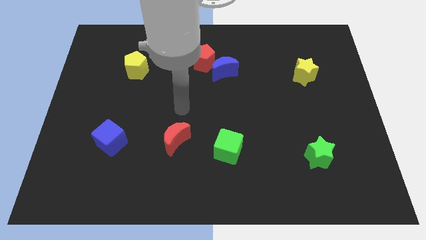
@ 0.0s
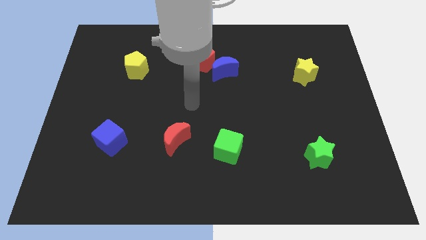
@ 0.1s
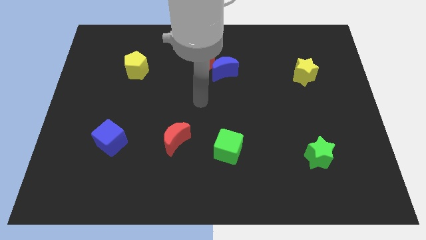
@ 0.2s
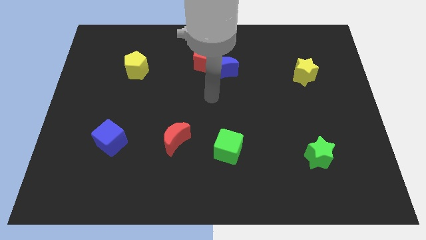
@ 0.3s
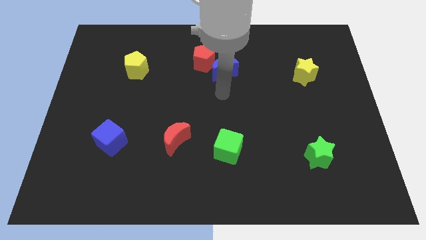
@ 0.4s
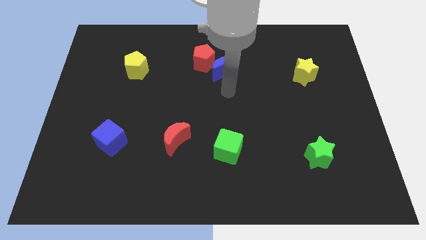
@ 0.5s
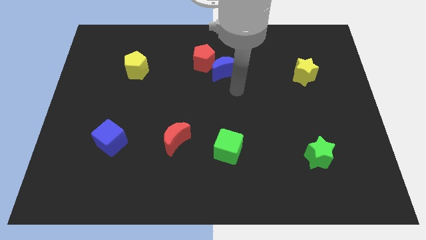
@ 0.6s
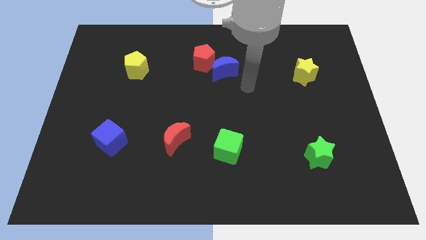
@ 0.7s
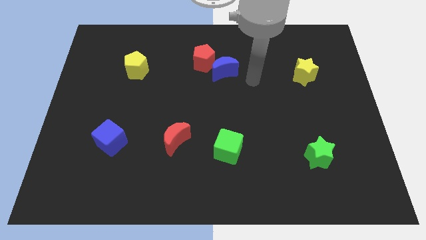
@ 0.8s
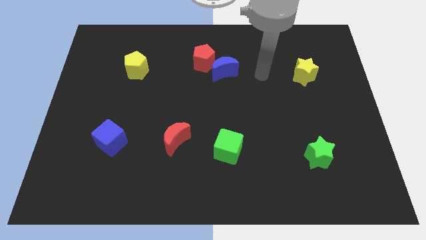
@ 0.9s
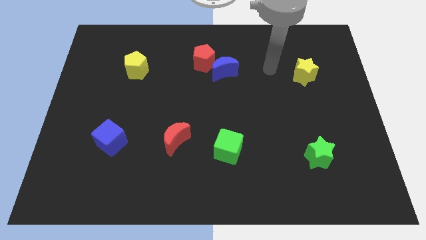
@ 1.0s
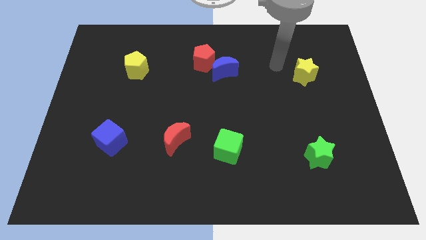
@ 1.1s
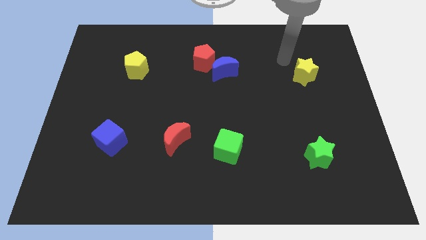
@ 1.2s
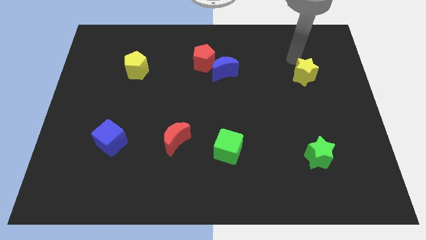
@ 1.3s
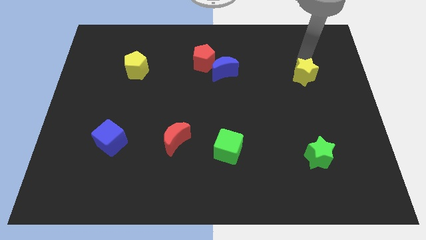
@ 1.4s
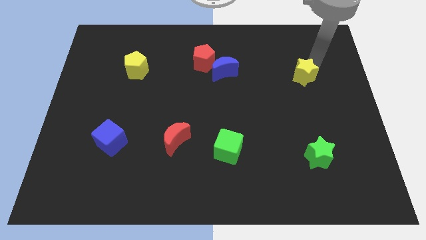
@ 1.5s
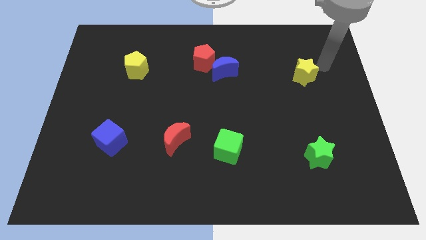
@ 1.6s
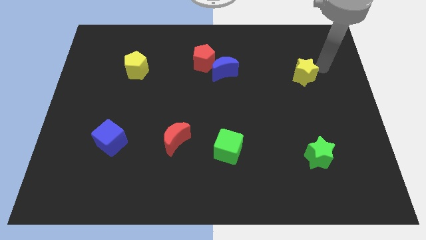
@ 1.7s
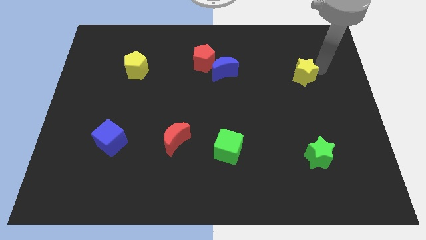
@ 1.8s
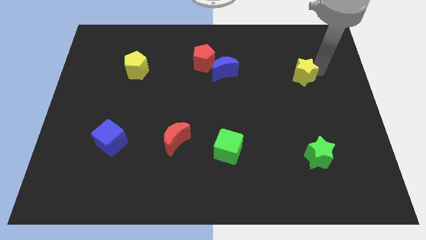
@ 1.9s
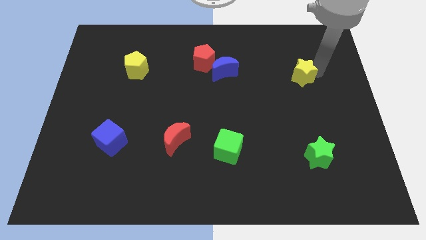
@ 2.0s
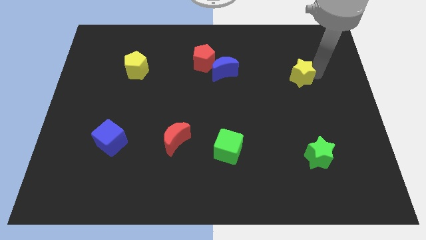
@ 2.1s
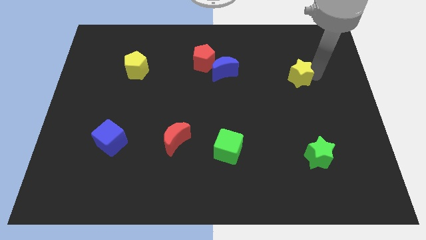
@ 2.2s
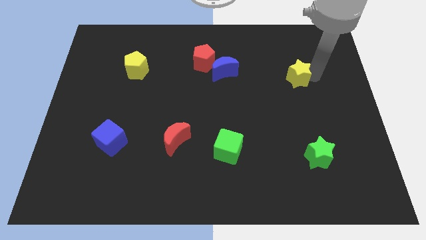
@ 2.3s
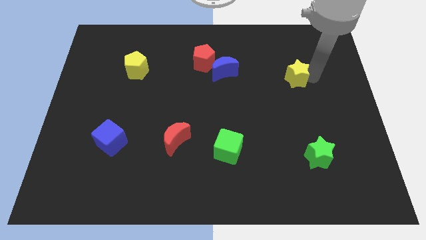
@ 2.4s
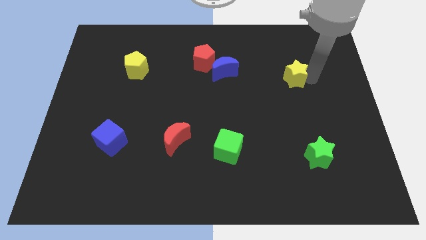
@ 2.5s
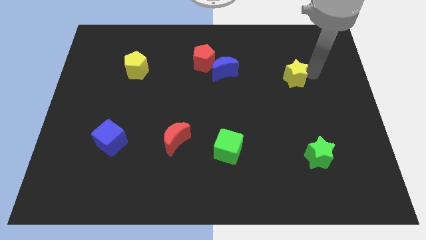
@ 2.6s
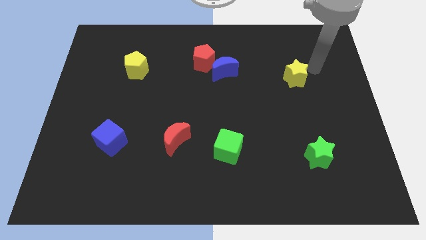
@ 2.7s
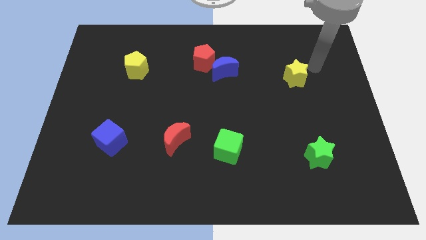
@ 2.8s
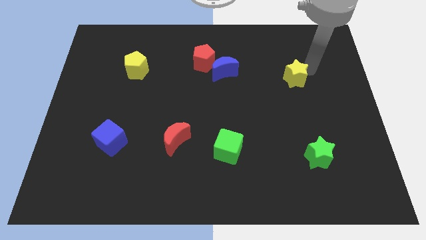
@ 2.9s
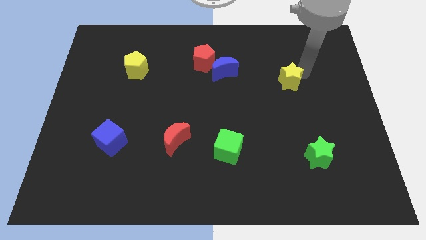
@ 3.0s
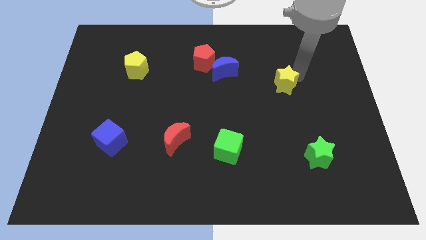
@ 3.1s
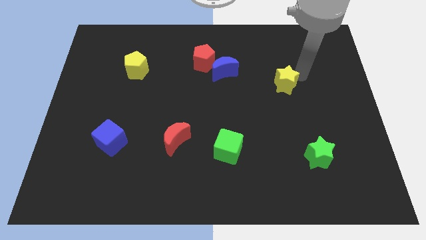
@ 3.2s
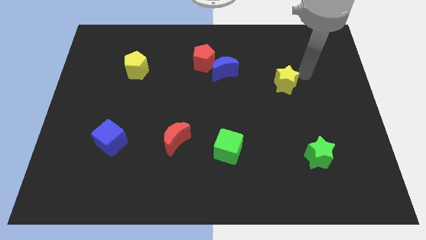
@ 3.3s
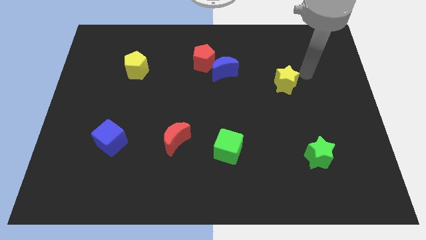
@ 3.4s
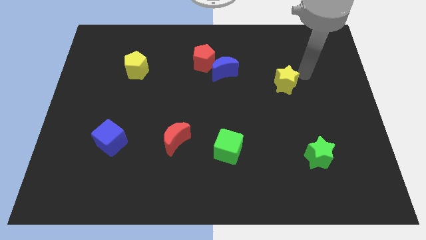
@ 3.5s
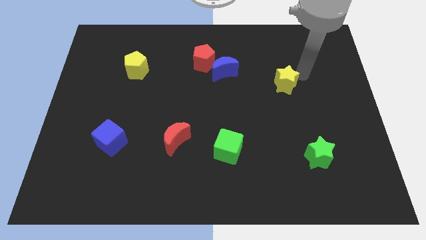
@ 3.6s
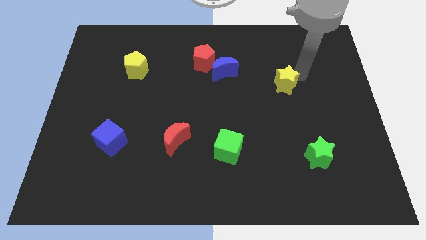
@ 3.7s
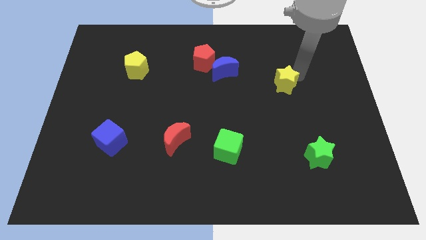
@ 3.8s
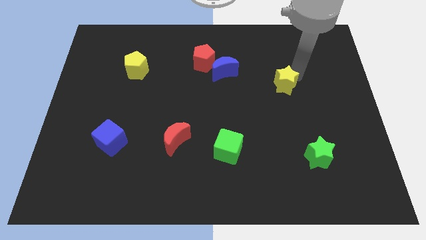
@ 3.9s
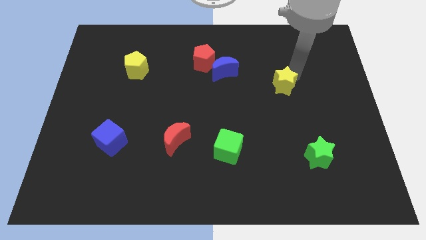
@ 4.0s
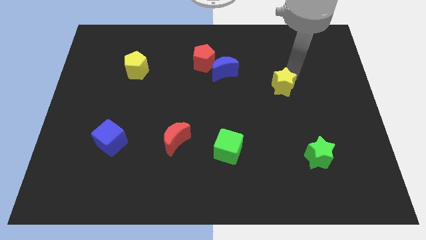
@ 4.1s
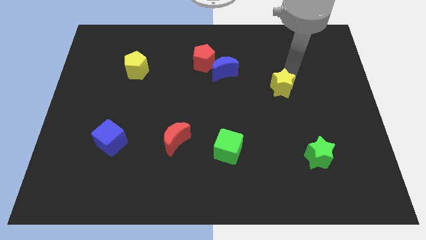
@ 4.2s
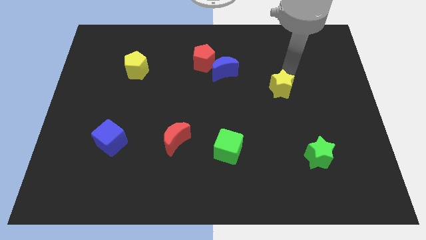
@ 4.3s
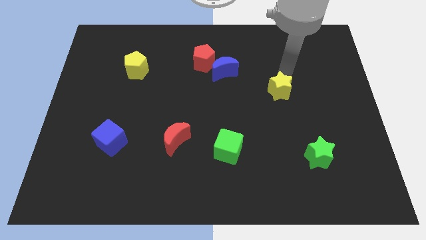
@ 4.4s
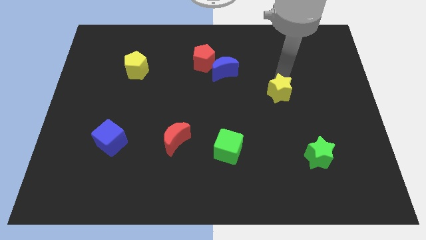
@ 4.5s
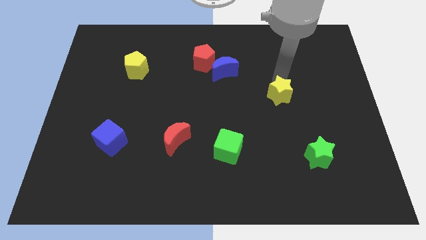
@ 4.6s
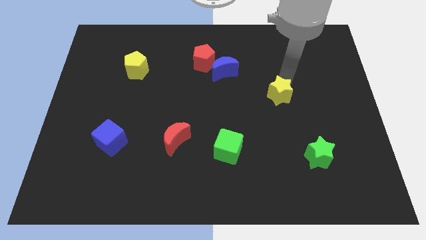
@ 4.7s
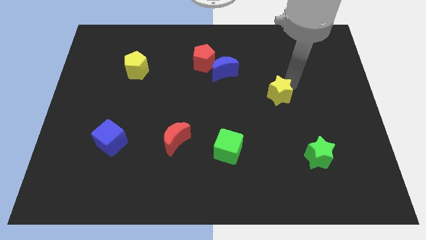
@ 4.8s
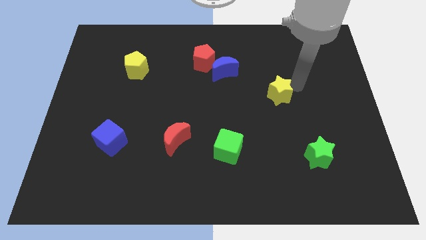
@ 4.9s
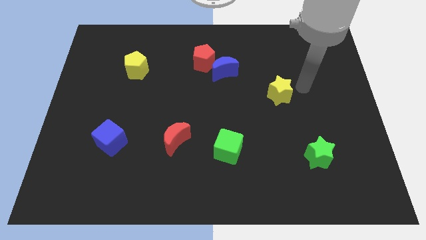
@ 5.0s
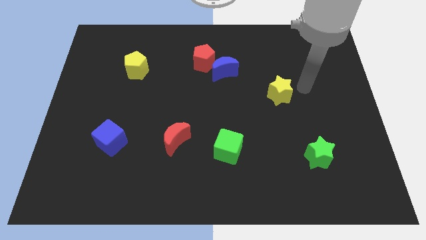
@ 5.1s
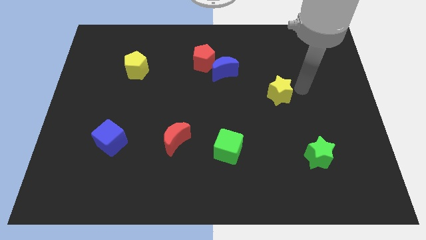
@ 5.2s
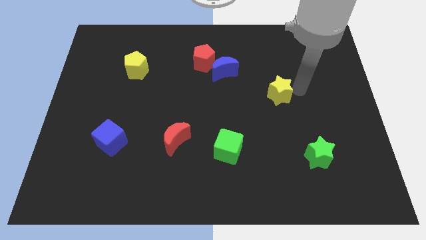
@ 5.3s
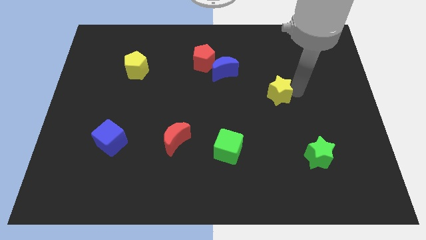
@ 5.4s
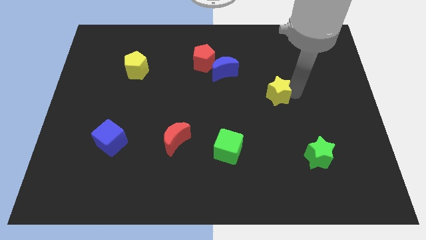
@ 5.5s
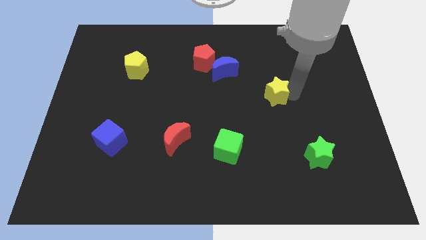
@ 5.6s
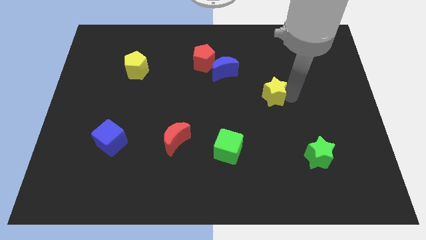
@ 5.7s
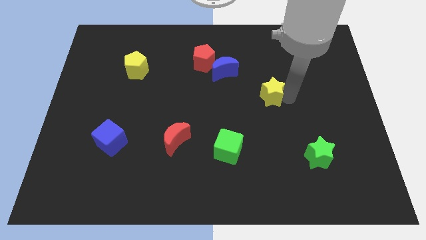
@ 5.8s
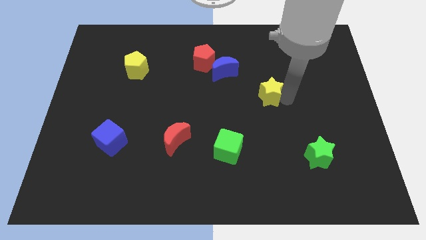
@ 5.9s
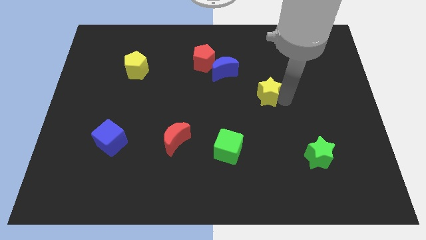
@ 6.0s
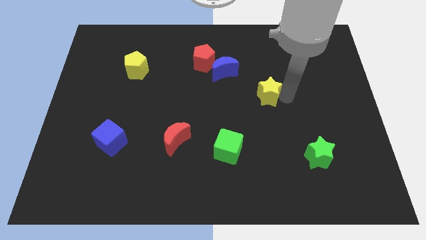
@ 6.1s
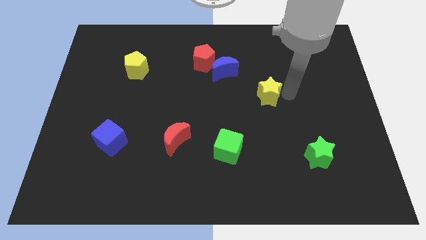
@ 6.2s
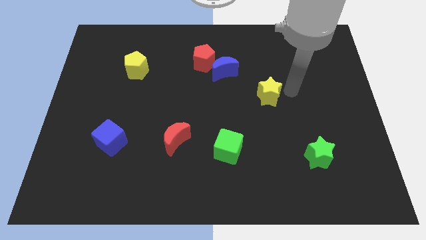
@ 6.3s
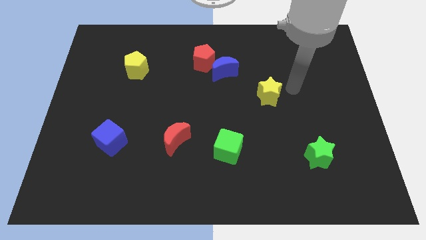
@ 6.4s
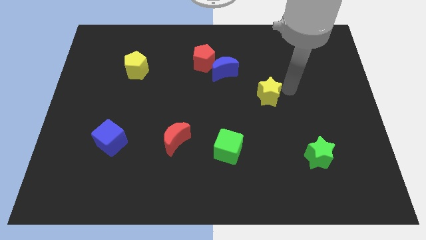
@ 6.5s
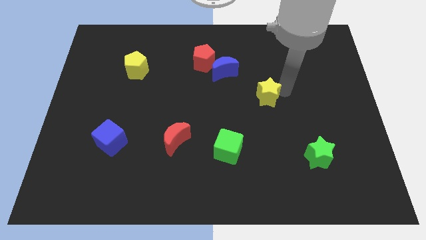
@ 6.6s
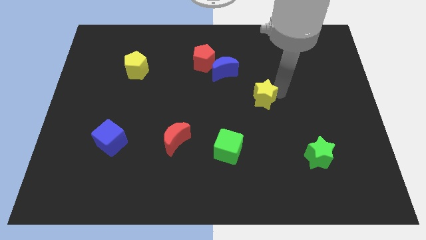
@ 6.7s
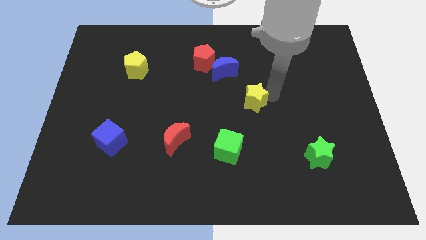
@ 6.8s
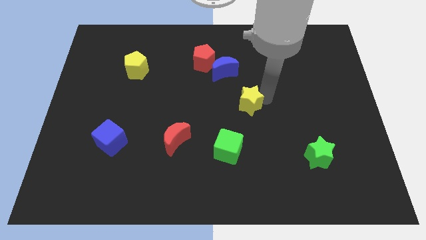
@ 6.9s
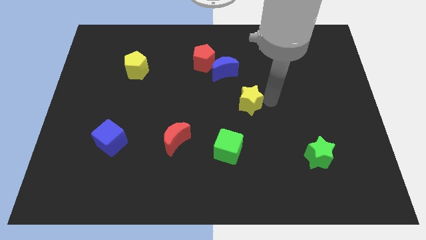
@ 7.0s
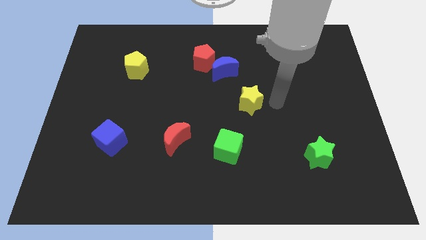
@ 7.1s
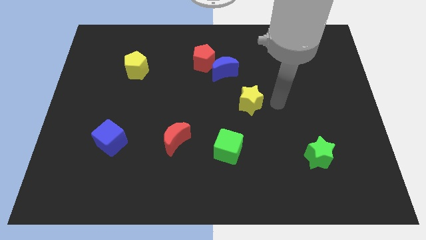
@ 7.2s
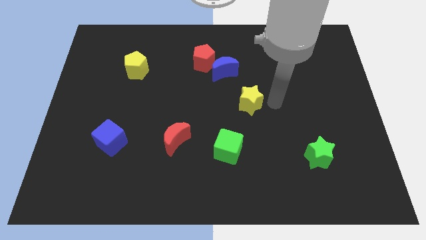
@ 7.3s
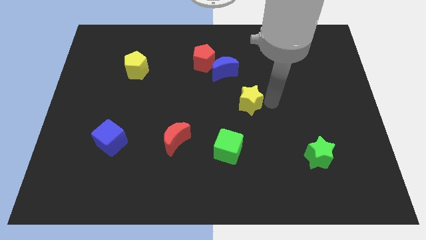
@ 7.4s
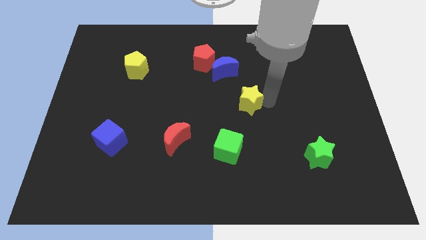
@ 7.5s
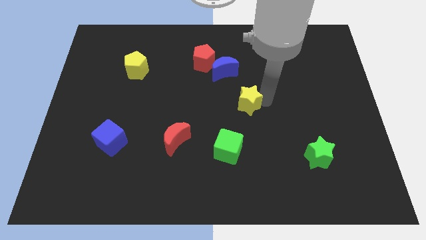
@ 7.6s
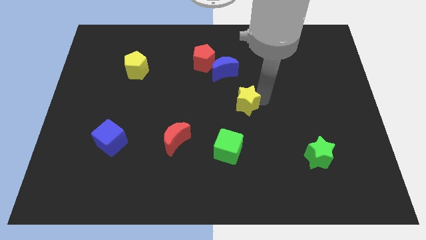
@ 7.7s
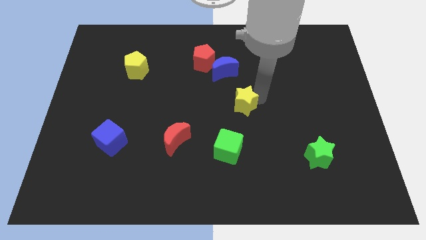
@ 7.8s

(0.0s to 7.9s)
push the yellow star to the bottom side of the blue moon

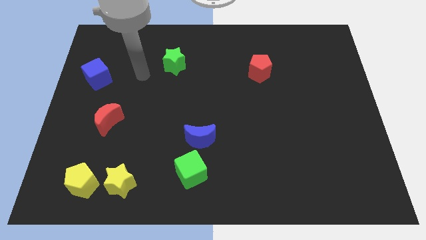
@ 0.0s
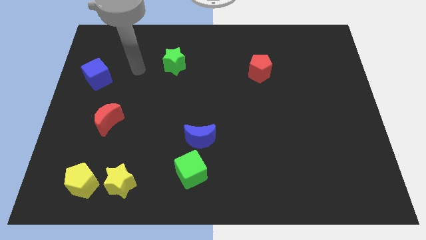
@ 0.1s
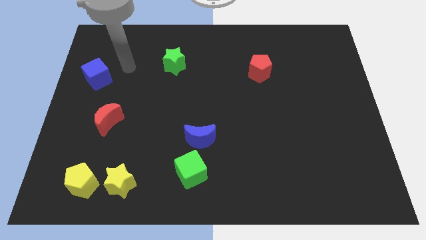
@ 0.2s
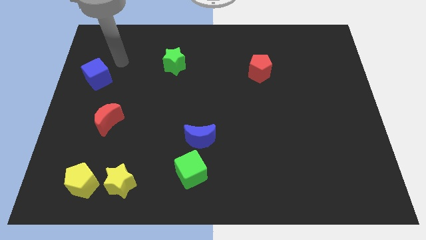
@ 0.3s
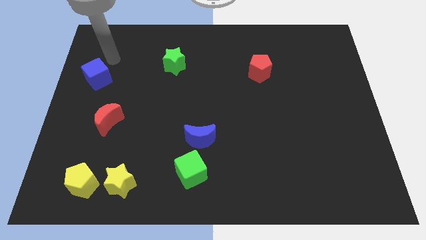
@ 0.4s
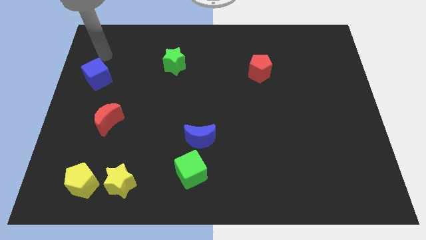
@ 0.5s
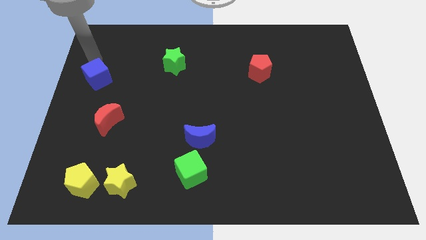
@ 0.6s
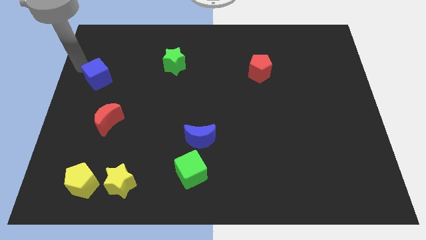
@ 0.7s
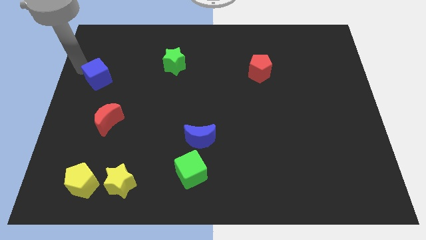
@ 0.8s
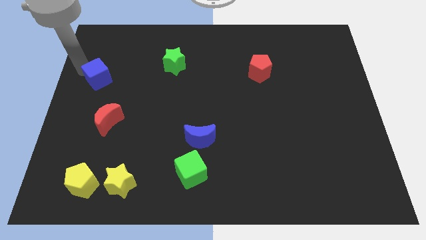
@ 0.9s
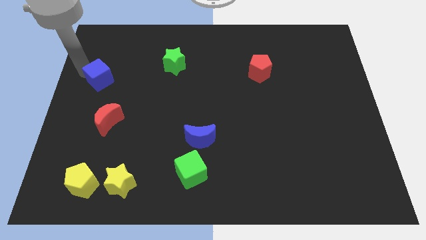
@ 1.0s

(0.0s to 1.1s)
move the blue cube to the top of the red moon
